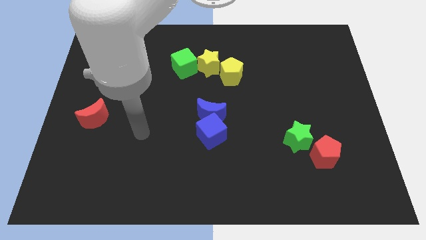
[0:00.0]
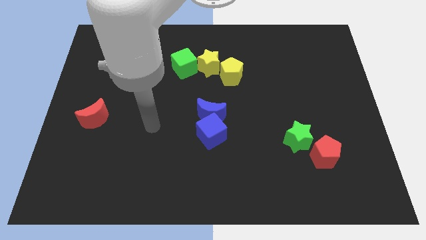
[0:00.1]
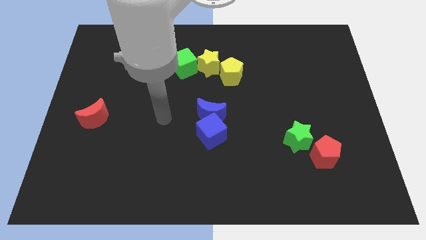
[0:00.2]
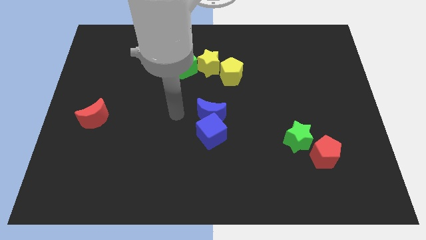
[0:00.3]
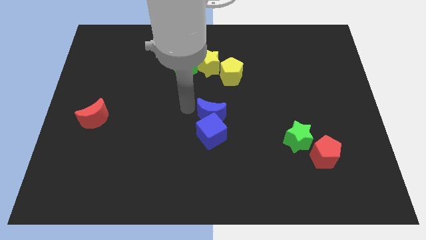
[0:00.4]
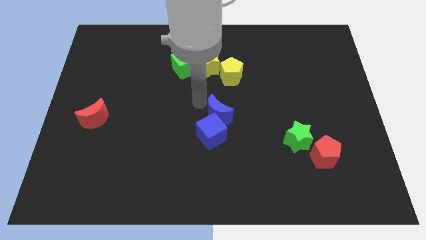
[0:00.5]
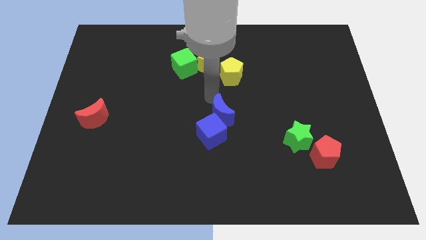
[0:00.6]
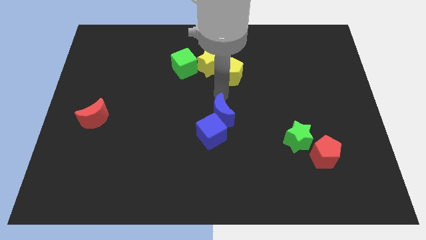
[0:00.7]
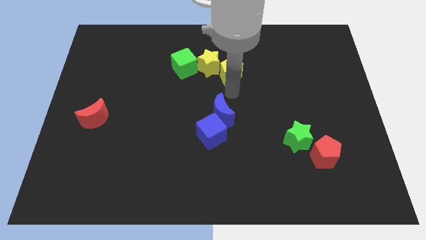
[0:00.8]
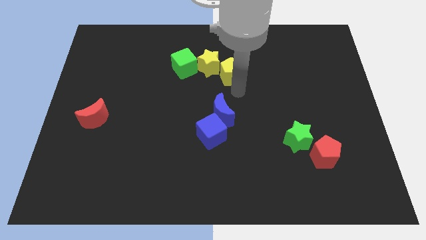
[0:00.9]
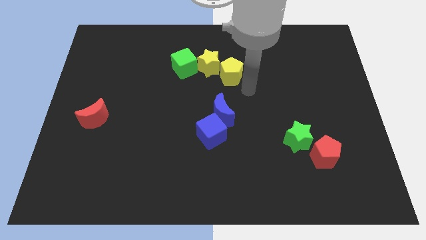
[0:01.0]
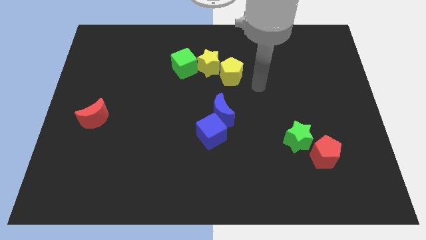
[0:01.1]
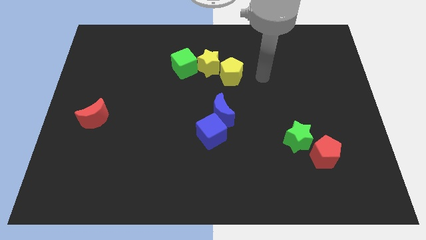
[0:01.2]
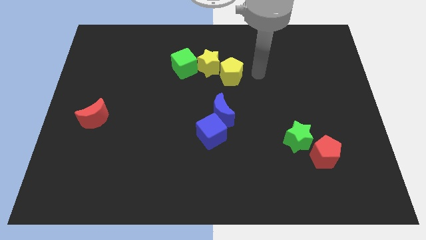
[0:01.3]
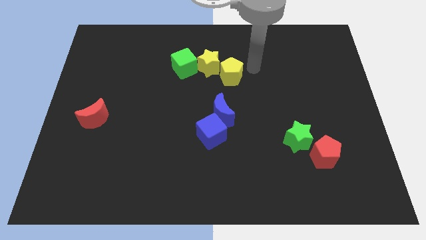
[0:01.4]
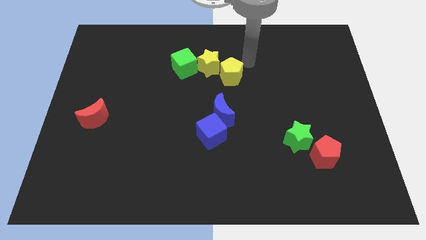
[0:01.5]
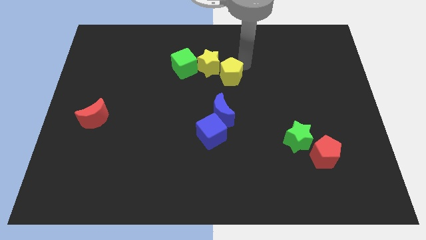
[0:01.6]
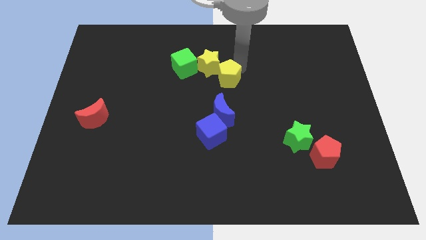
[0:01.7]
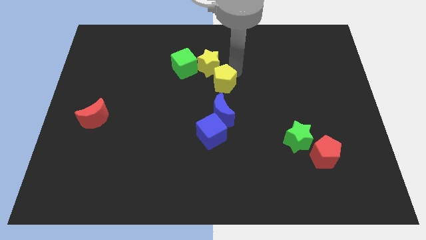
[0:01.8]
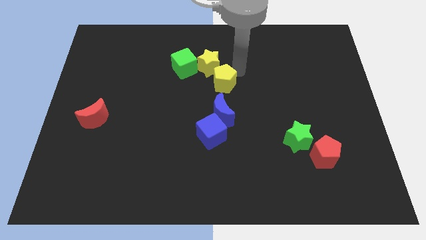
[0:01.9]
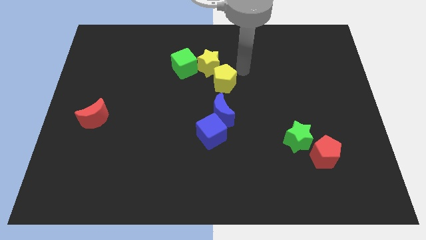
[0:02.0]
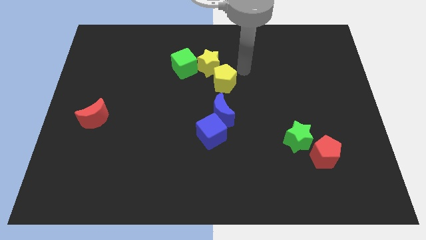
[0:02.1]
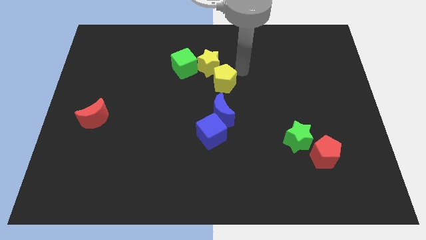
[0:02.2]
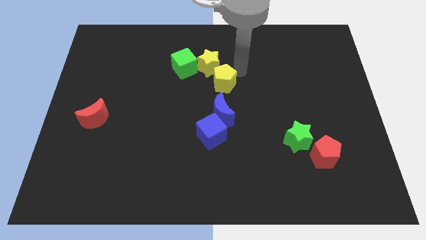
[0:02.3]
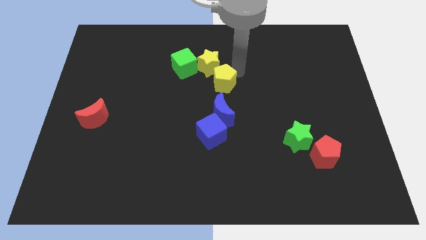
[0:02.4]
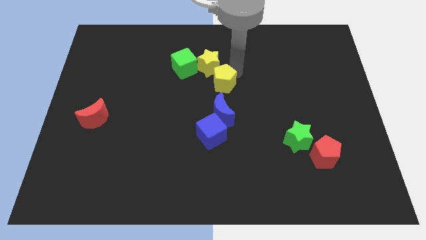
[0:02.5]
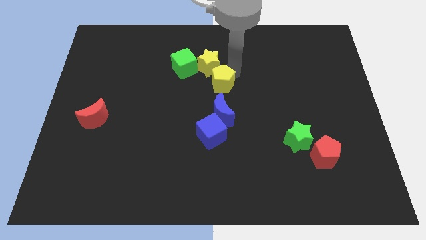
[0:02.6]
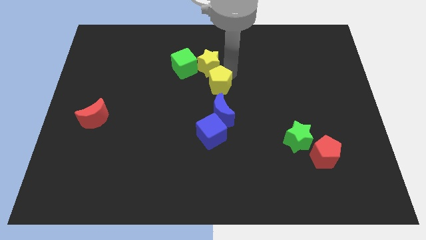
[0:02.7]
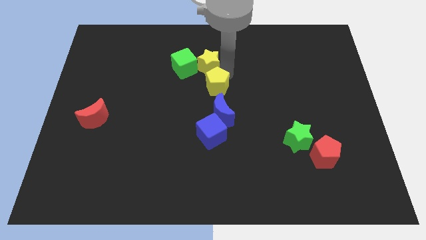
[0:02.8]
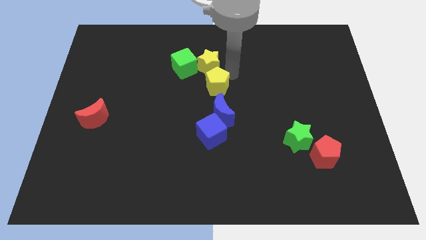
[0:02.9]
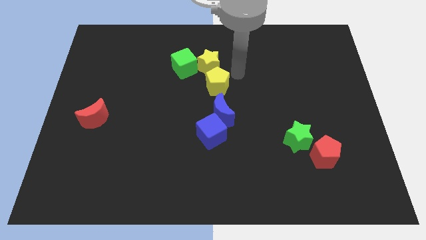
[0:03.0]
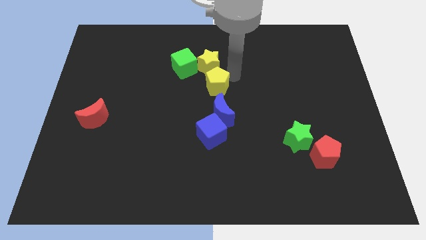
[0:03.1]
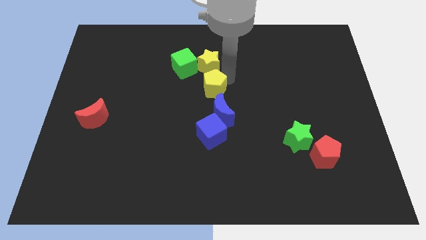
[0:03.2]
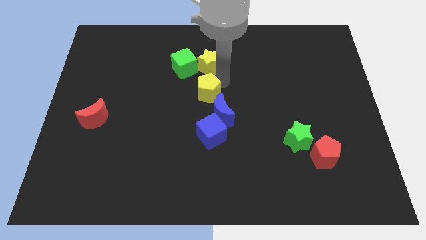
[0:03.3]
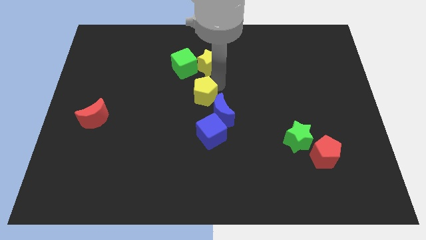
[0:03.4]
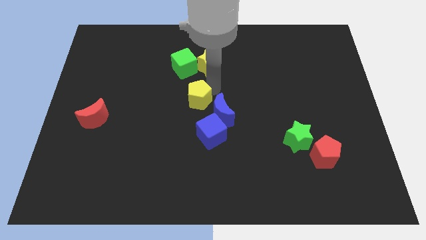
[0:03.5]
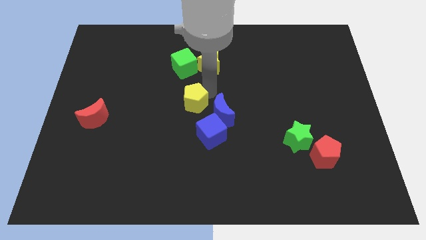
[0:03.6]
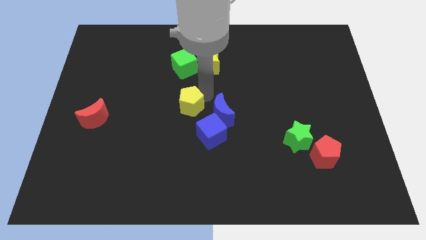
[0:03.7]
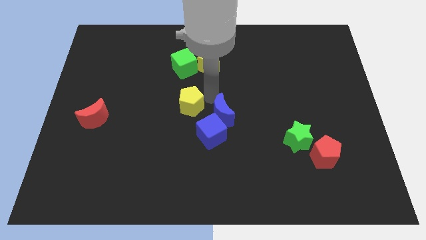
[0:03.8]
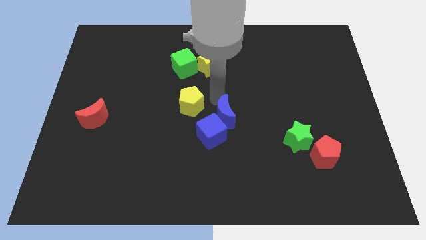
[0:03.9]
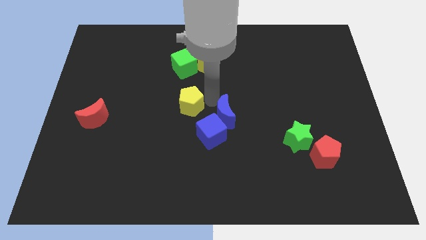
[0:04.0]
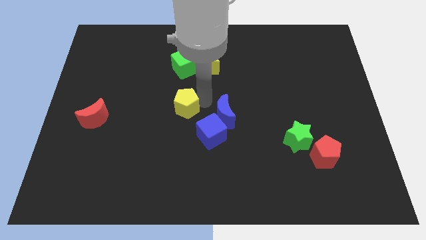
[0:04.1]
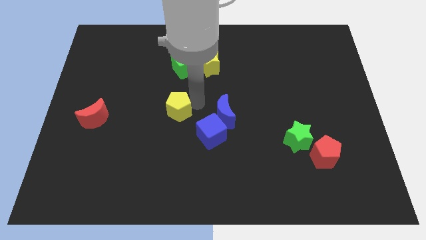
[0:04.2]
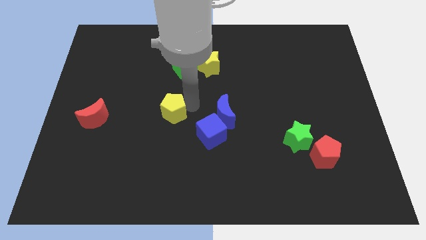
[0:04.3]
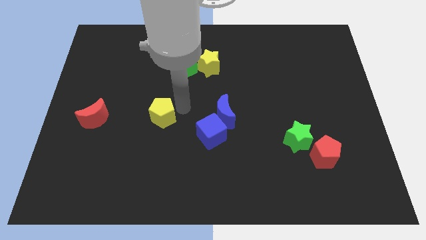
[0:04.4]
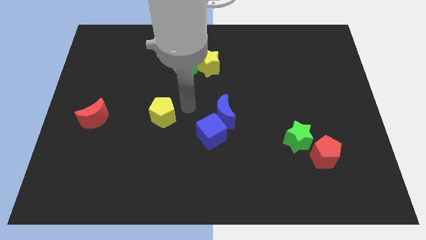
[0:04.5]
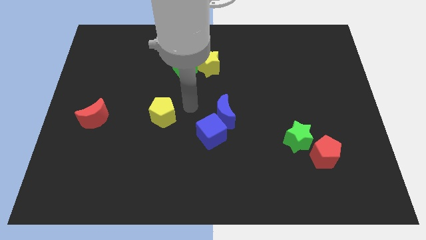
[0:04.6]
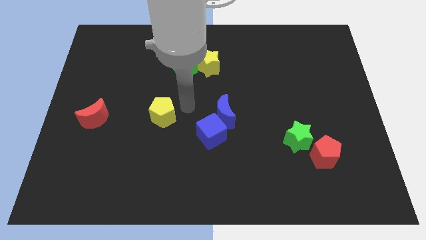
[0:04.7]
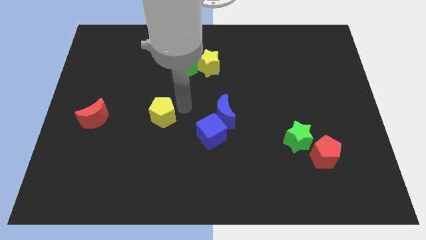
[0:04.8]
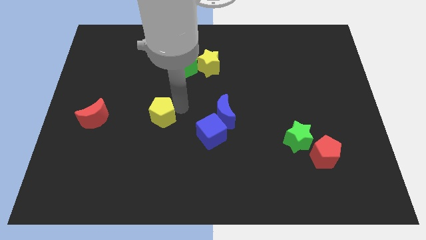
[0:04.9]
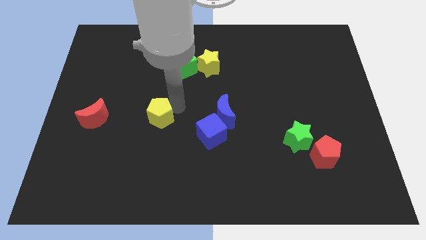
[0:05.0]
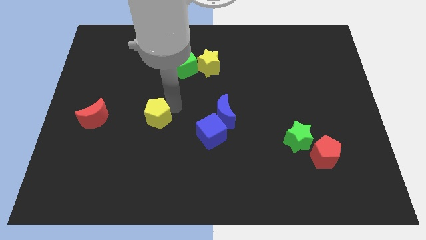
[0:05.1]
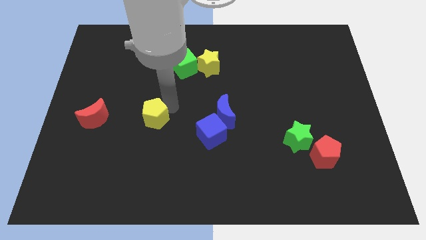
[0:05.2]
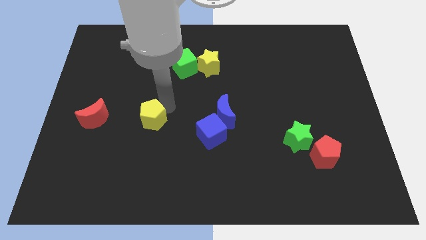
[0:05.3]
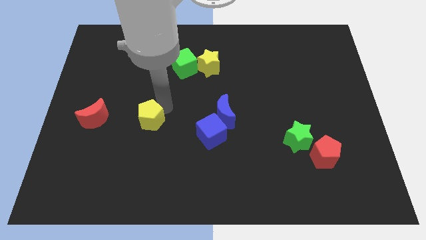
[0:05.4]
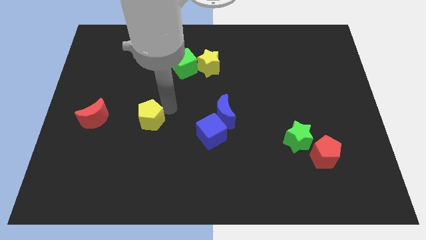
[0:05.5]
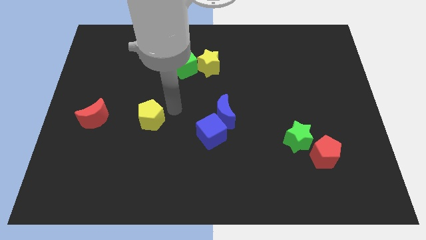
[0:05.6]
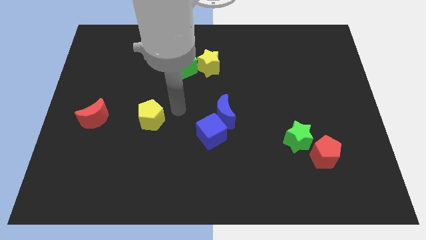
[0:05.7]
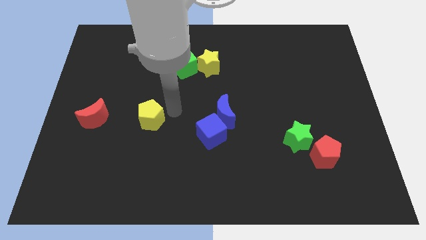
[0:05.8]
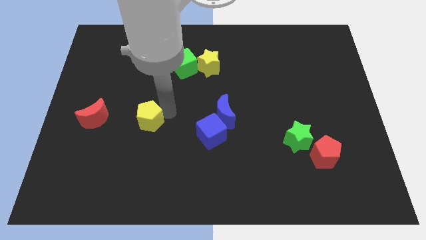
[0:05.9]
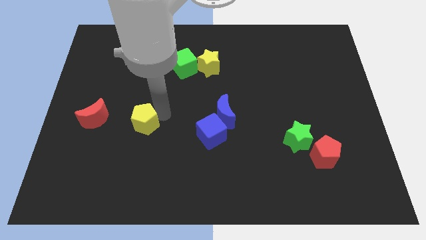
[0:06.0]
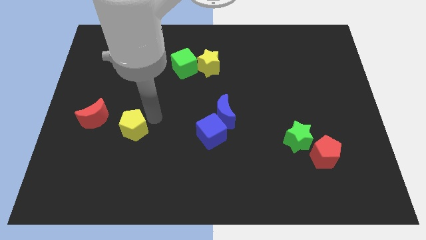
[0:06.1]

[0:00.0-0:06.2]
push the yellow pentagon to the bottom right of the red moon

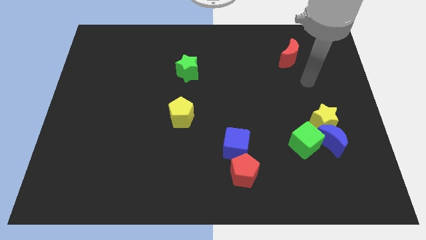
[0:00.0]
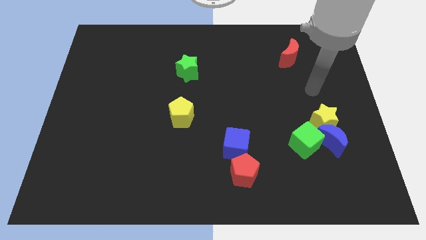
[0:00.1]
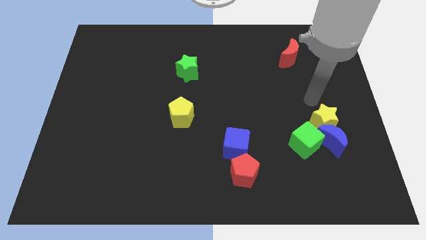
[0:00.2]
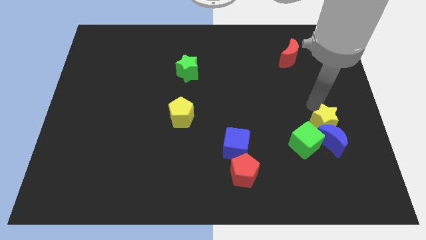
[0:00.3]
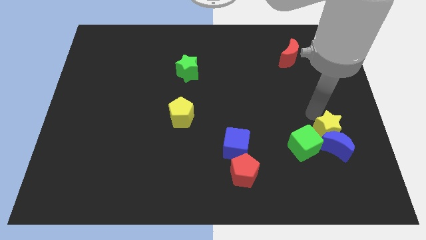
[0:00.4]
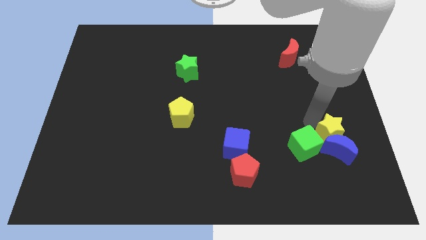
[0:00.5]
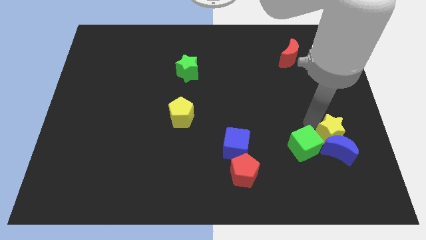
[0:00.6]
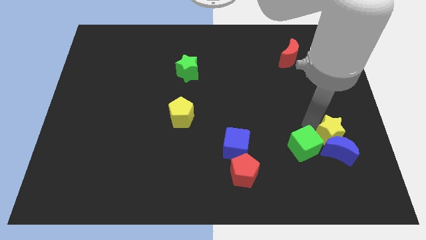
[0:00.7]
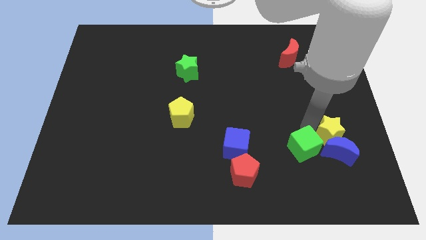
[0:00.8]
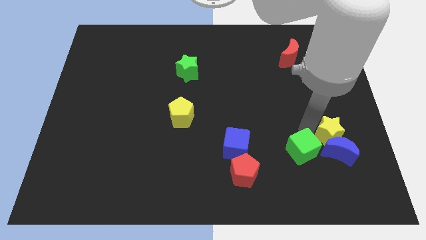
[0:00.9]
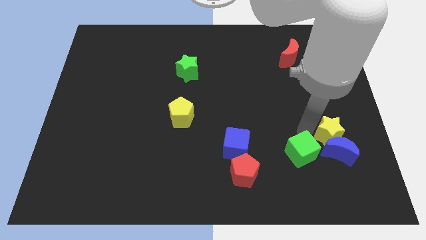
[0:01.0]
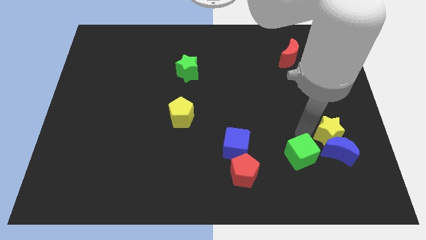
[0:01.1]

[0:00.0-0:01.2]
move the green cube to the right side of the red pentagon
